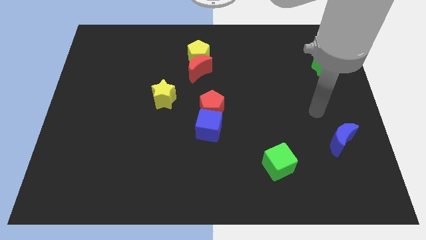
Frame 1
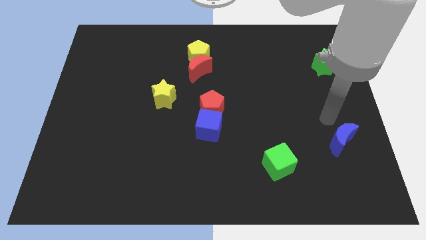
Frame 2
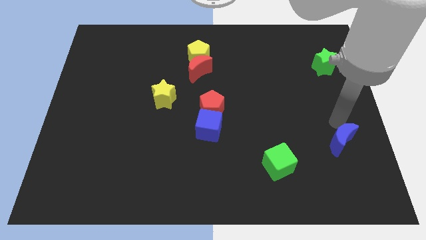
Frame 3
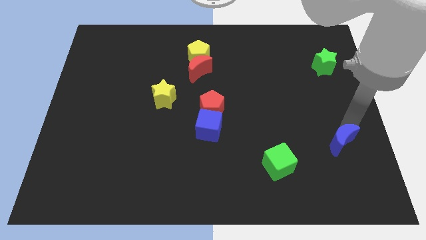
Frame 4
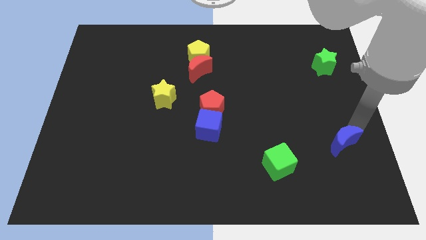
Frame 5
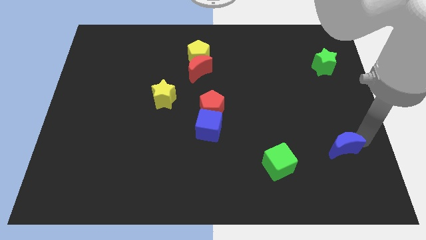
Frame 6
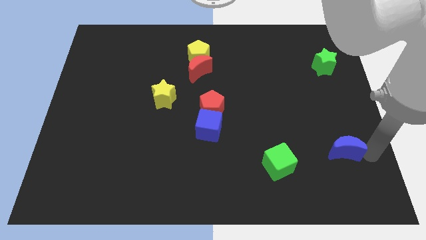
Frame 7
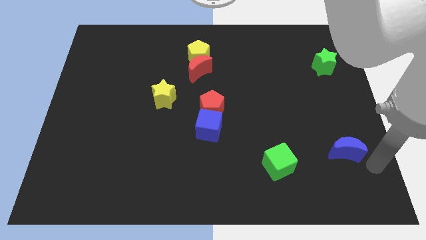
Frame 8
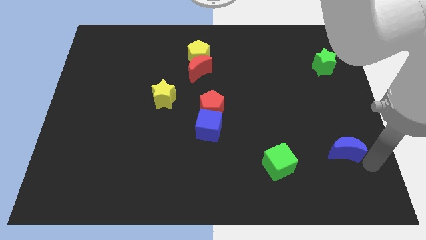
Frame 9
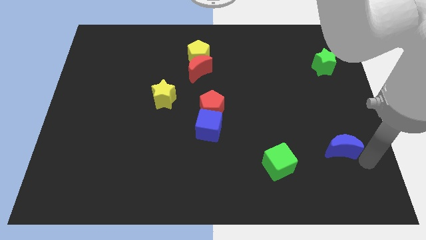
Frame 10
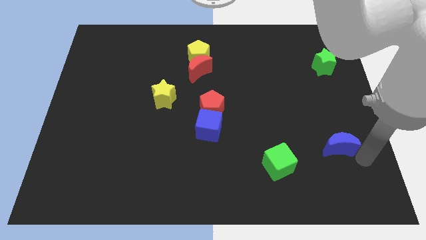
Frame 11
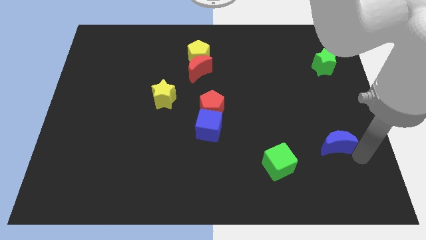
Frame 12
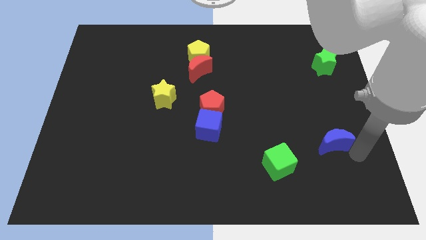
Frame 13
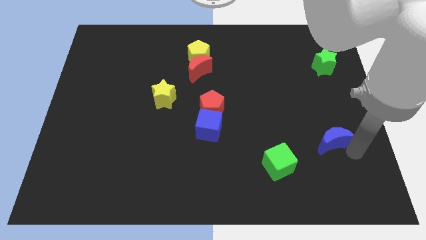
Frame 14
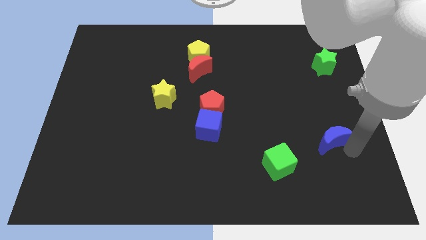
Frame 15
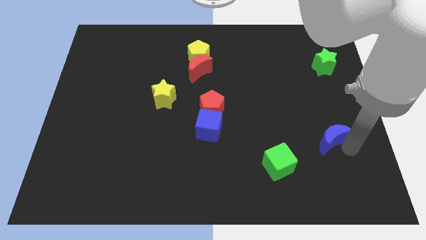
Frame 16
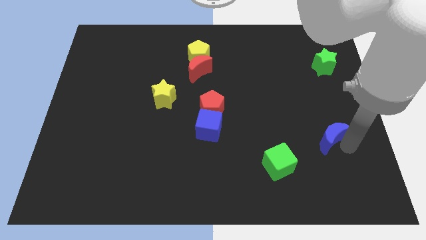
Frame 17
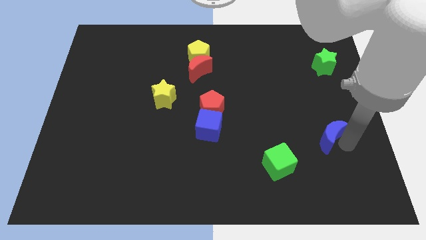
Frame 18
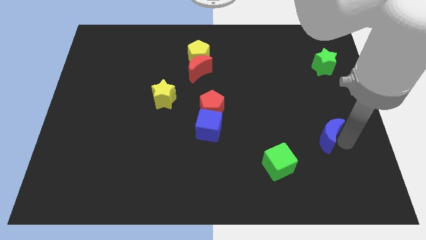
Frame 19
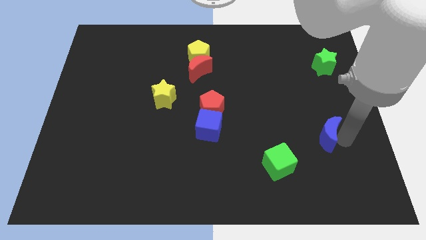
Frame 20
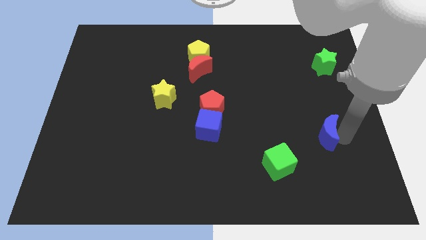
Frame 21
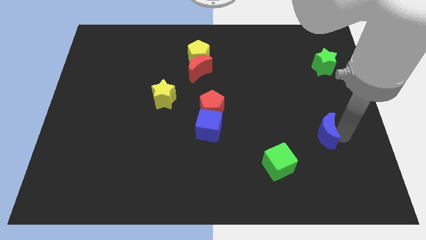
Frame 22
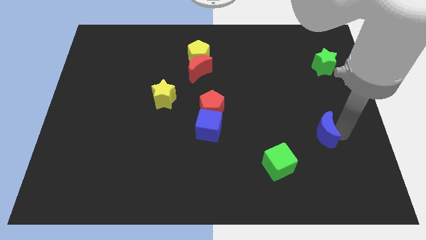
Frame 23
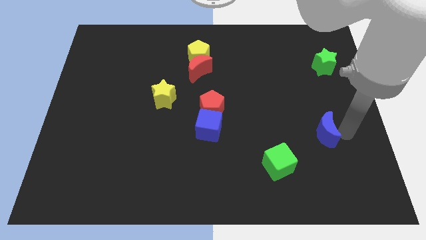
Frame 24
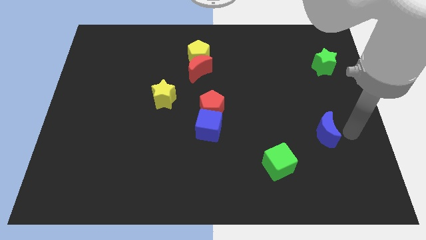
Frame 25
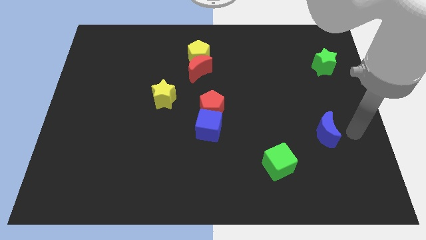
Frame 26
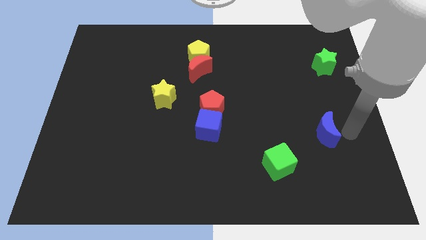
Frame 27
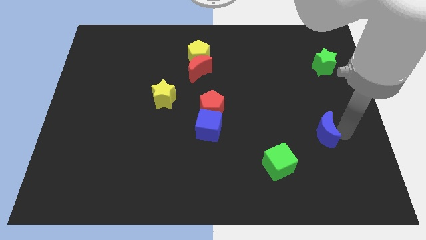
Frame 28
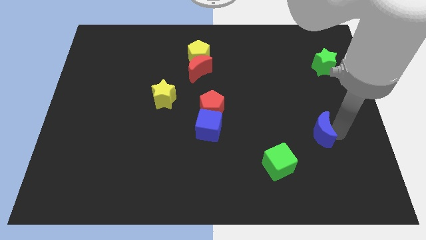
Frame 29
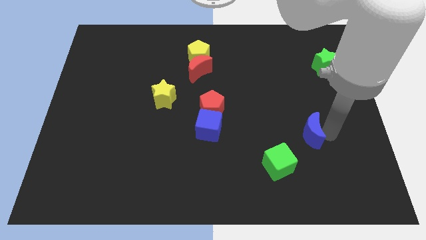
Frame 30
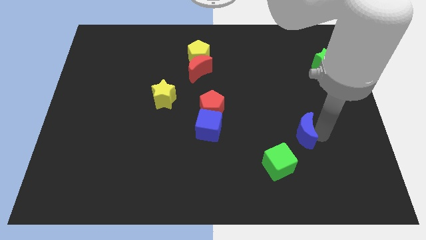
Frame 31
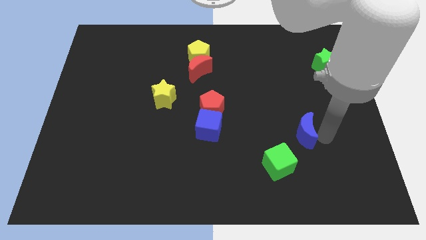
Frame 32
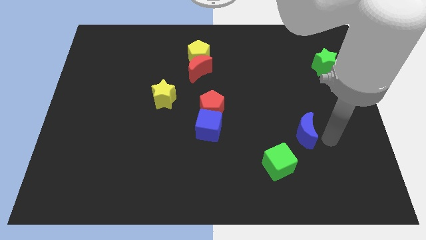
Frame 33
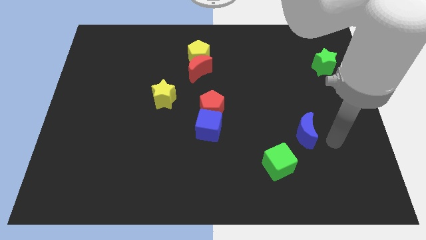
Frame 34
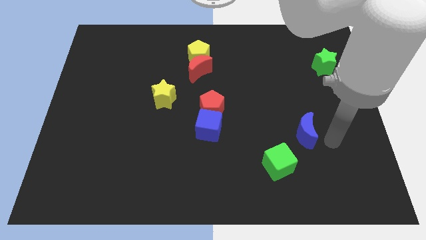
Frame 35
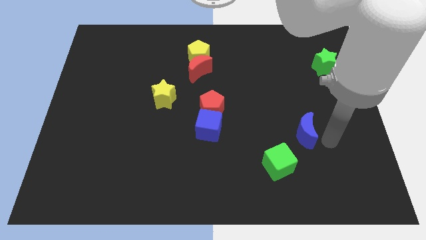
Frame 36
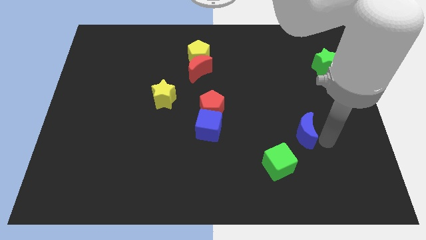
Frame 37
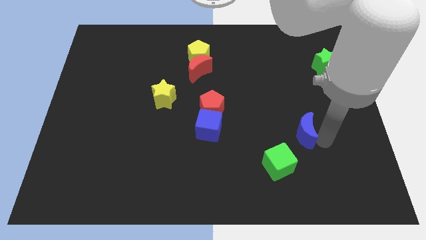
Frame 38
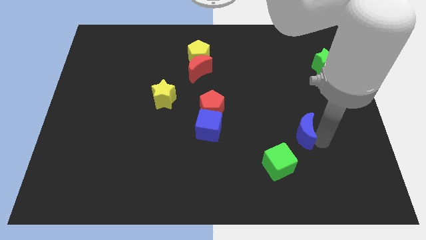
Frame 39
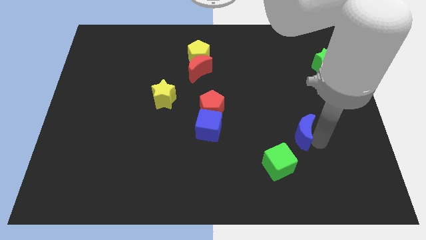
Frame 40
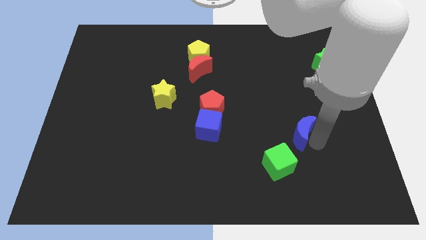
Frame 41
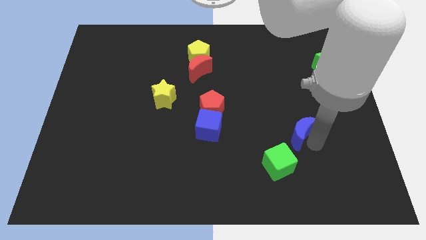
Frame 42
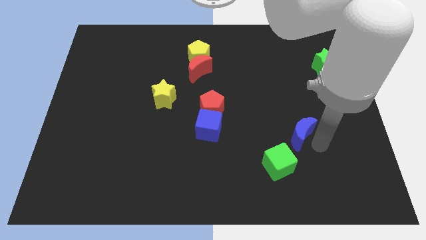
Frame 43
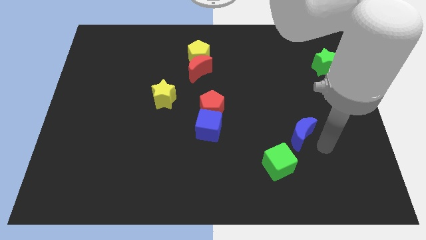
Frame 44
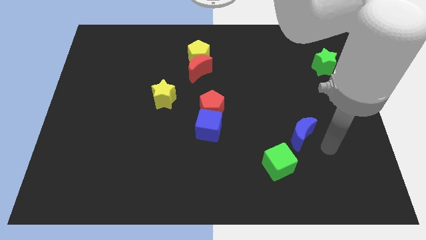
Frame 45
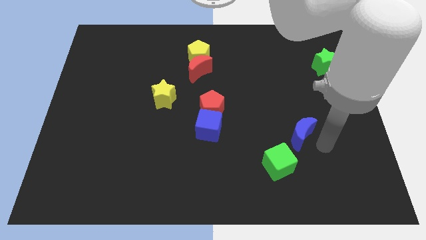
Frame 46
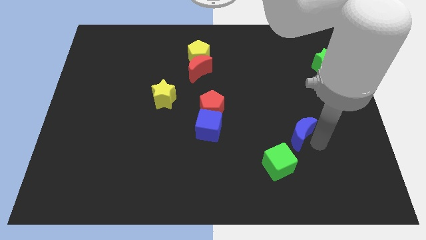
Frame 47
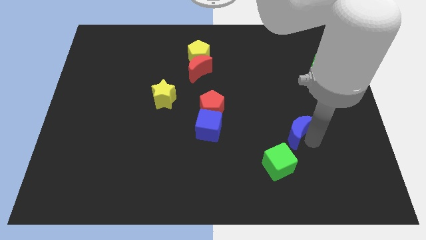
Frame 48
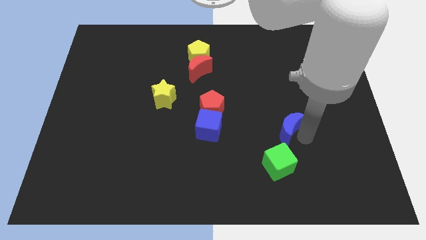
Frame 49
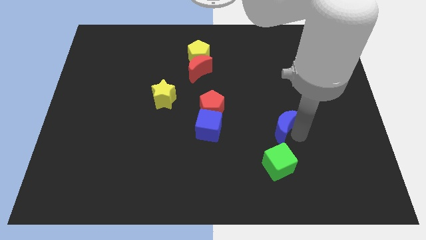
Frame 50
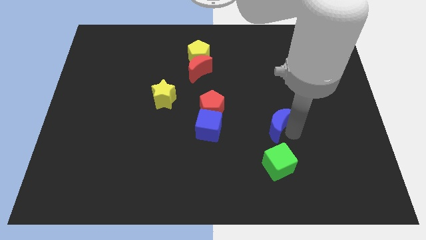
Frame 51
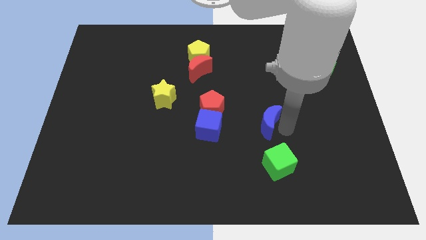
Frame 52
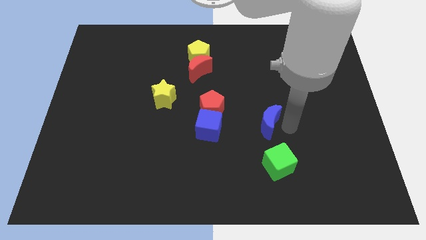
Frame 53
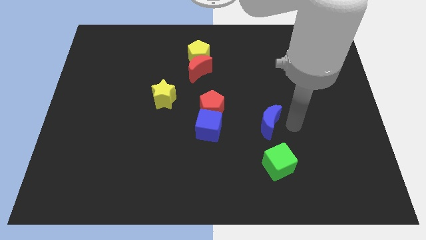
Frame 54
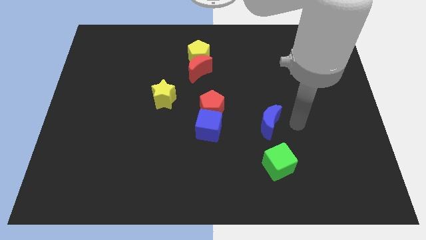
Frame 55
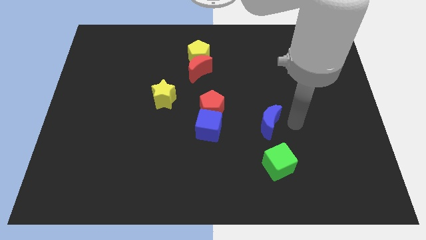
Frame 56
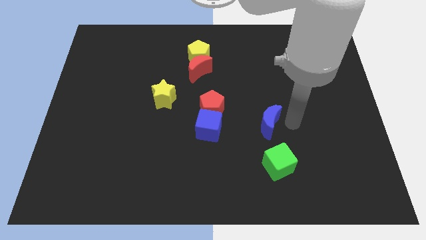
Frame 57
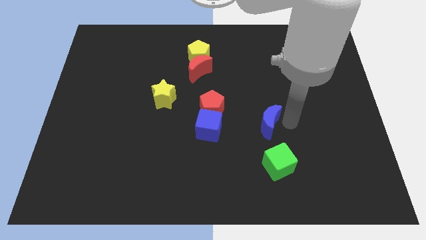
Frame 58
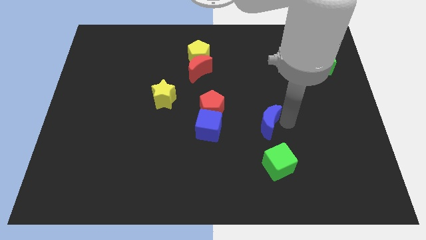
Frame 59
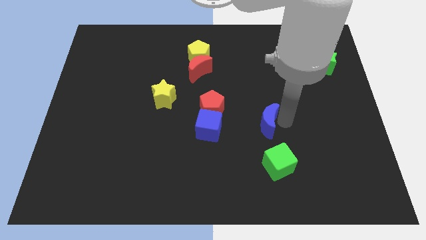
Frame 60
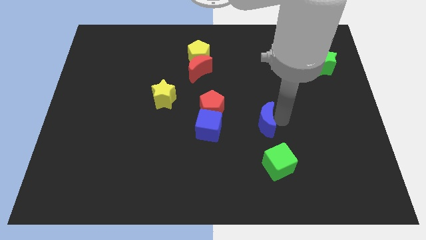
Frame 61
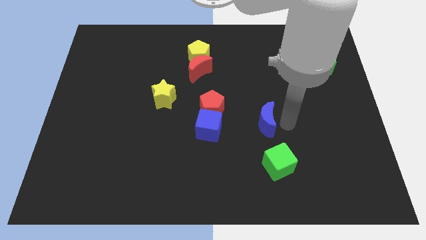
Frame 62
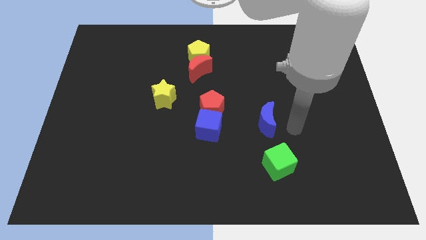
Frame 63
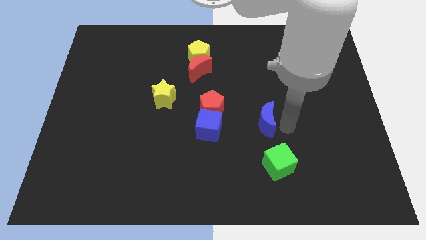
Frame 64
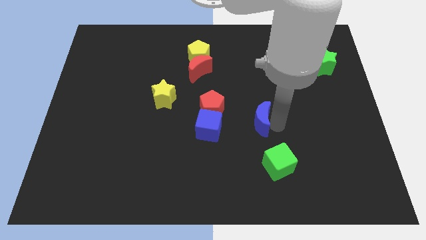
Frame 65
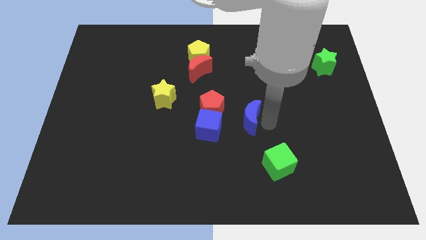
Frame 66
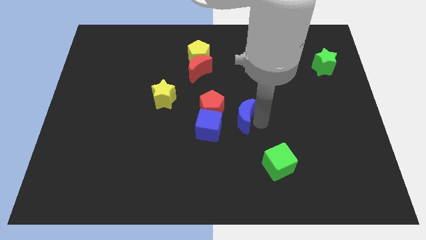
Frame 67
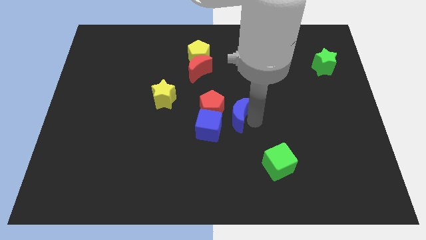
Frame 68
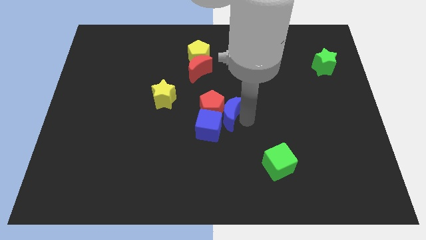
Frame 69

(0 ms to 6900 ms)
move the blue moon next to the red pentagon

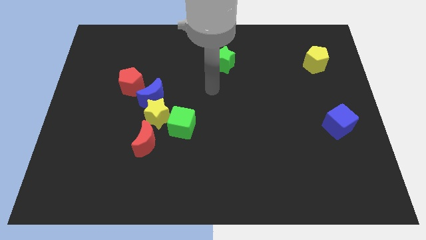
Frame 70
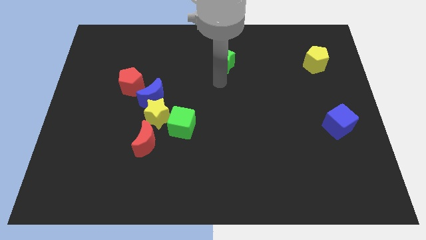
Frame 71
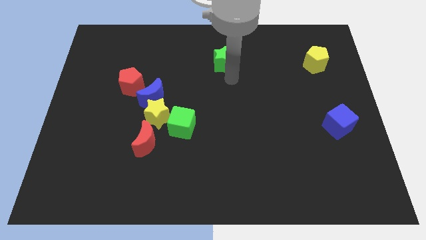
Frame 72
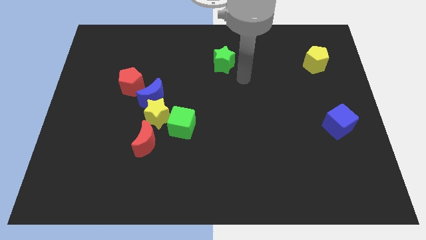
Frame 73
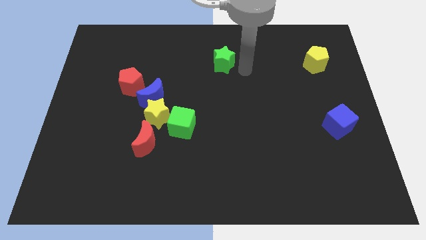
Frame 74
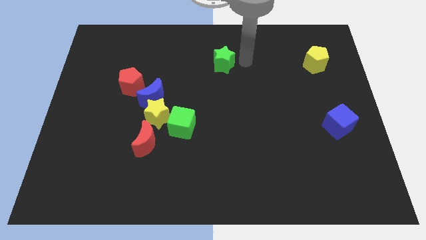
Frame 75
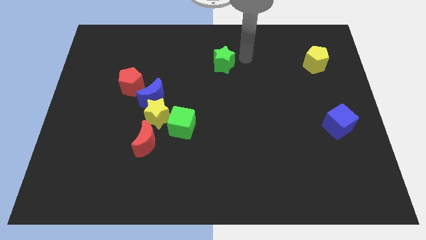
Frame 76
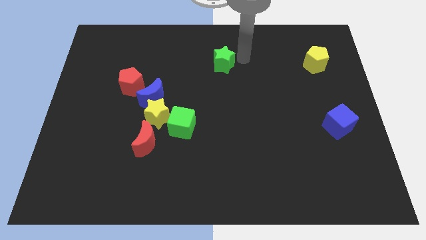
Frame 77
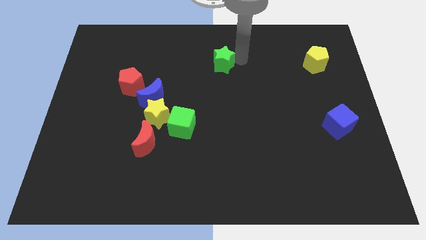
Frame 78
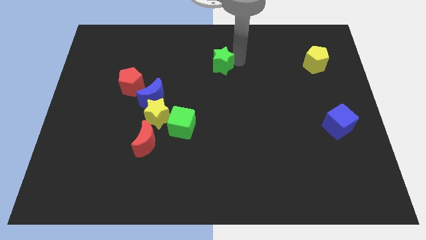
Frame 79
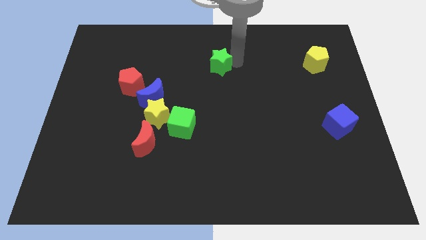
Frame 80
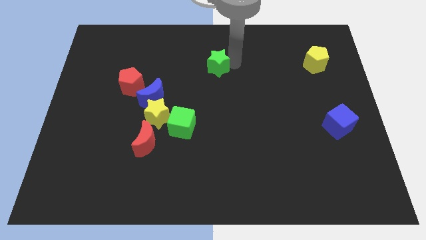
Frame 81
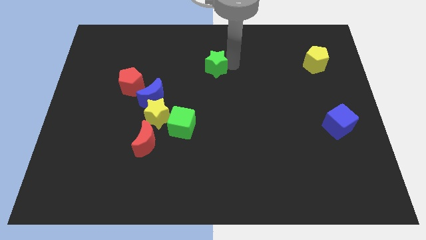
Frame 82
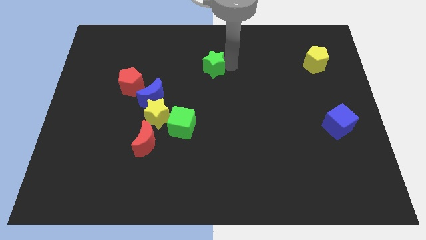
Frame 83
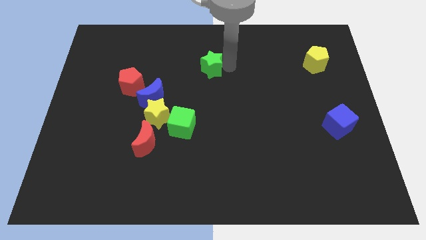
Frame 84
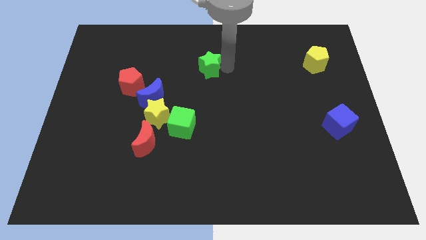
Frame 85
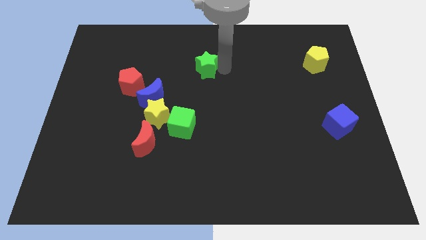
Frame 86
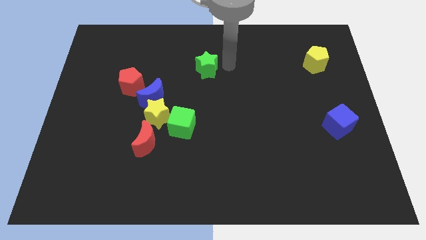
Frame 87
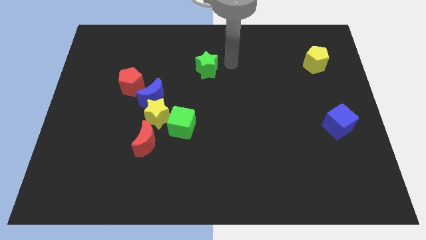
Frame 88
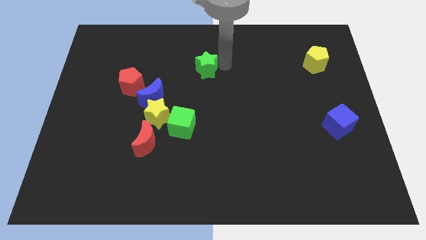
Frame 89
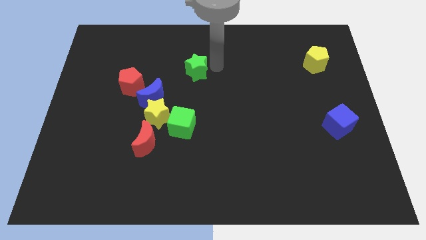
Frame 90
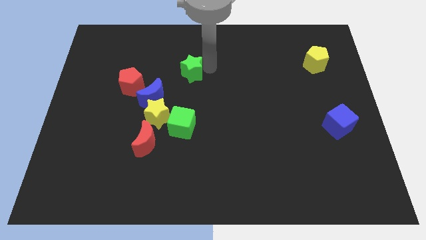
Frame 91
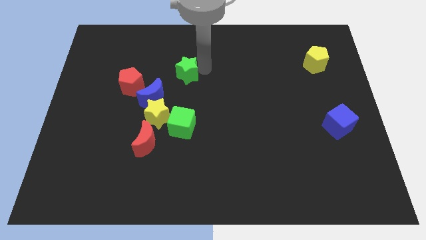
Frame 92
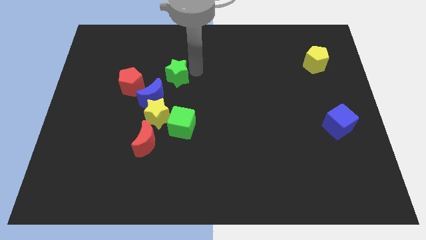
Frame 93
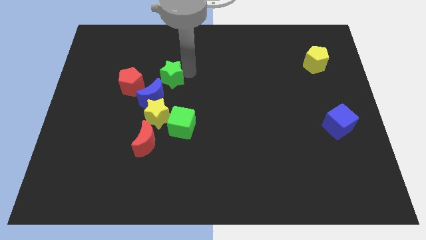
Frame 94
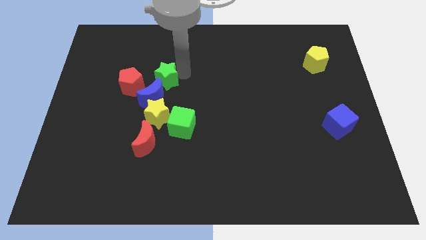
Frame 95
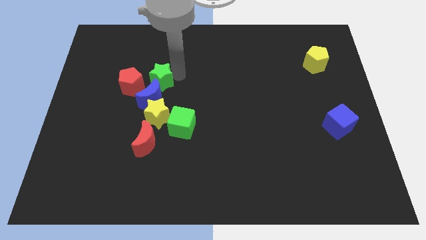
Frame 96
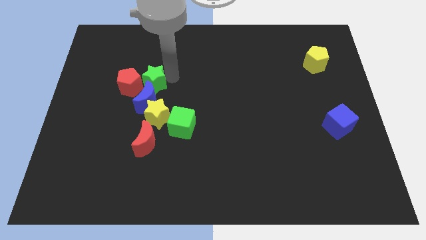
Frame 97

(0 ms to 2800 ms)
move the green star to the red pentagon
